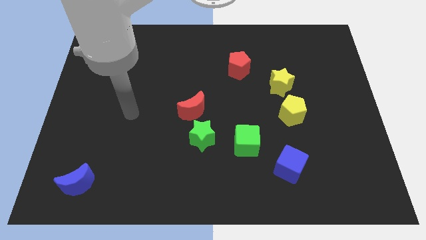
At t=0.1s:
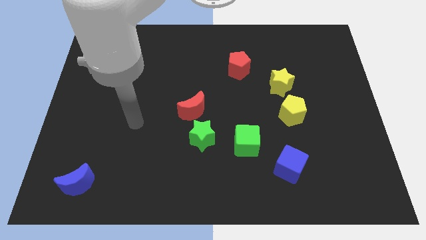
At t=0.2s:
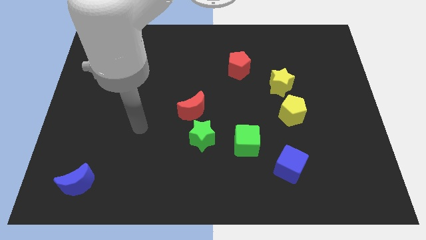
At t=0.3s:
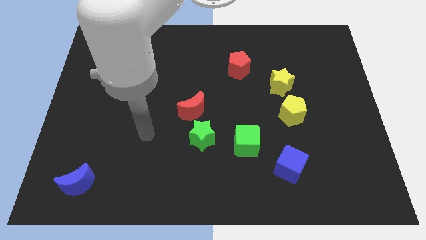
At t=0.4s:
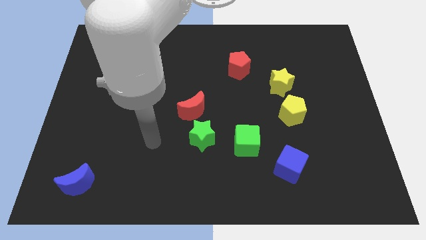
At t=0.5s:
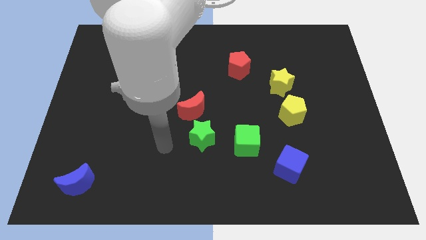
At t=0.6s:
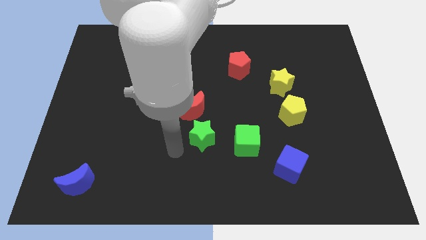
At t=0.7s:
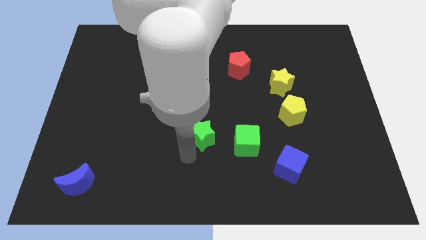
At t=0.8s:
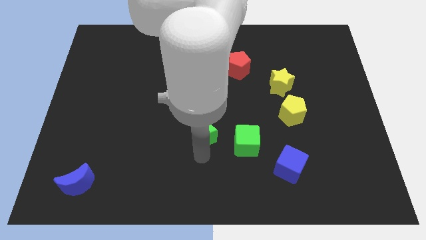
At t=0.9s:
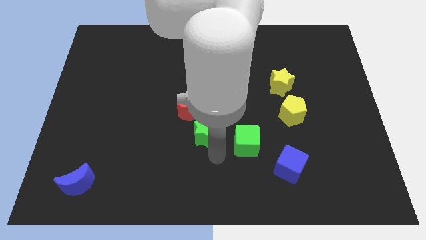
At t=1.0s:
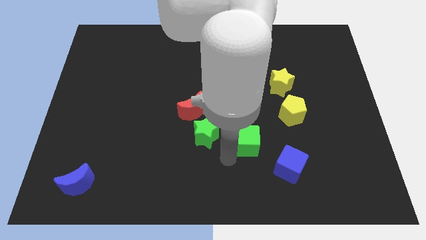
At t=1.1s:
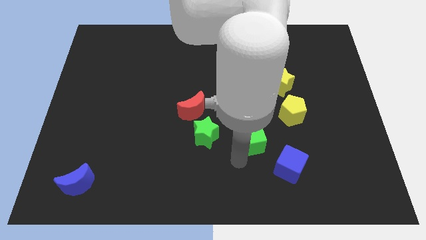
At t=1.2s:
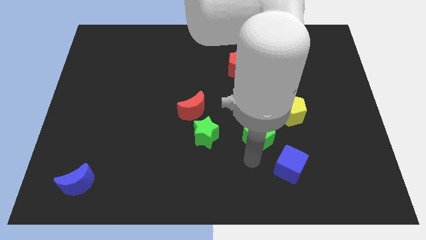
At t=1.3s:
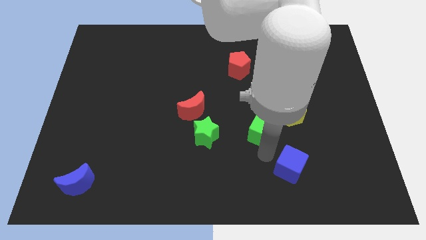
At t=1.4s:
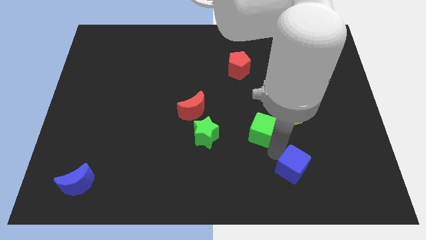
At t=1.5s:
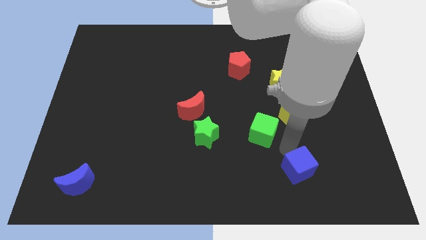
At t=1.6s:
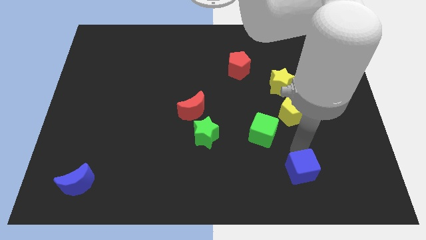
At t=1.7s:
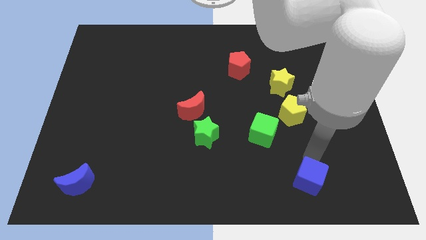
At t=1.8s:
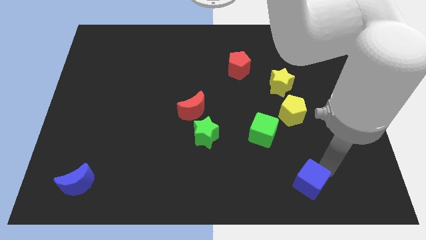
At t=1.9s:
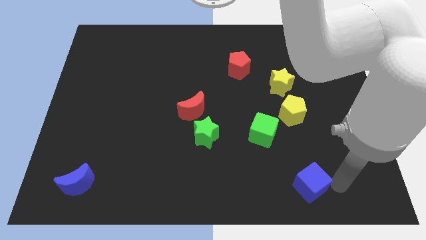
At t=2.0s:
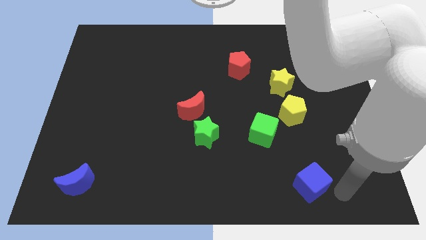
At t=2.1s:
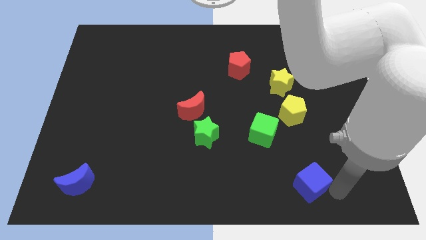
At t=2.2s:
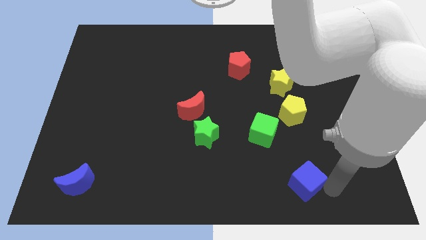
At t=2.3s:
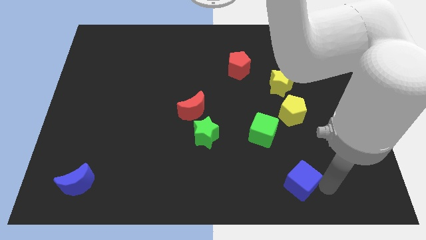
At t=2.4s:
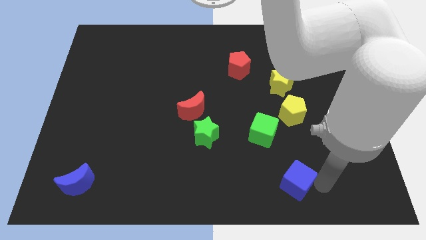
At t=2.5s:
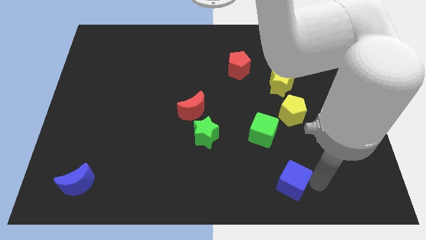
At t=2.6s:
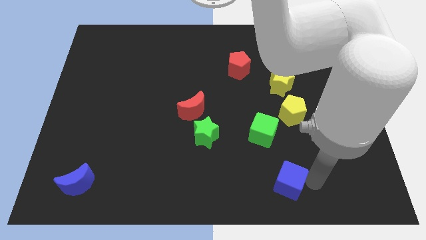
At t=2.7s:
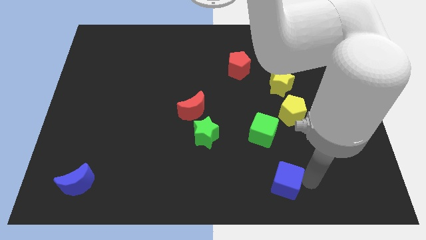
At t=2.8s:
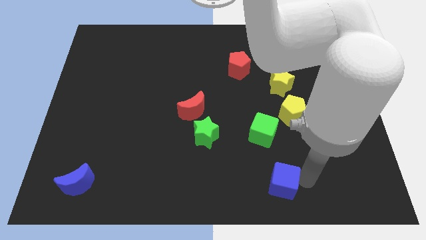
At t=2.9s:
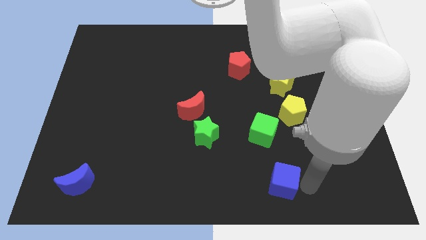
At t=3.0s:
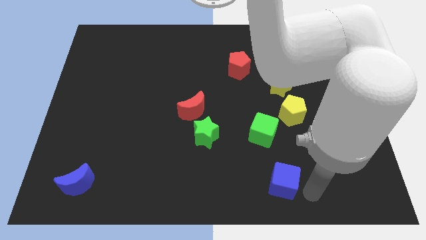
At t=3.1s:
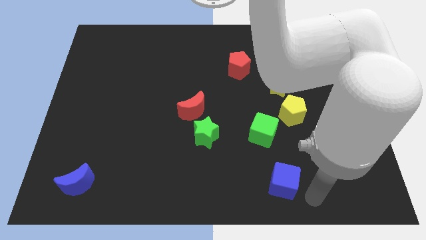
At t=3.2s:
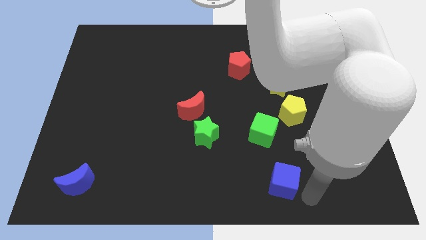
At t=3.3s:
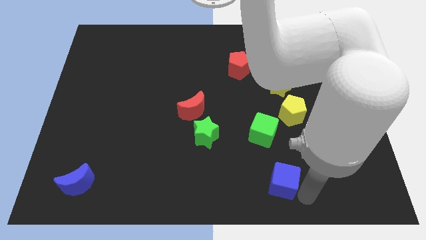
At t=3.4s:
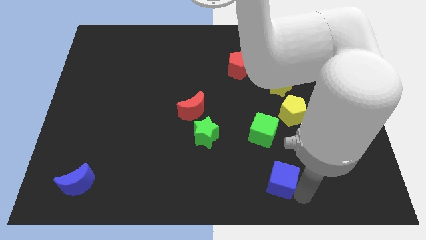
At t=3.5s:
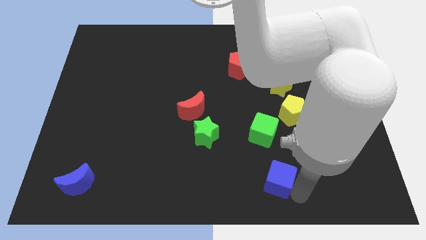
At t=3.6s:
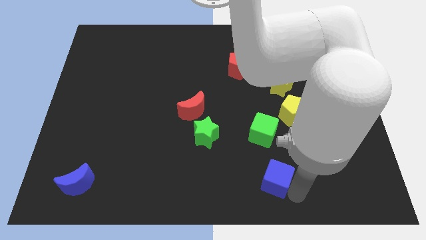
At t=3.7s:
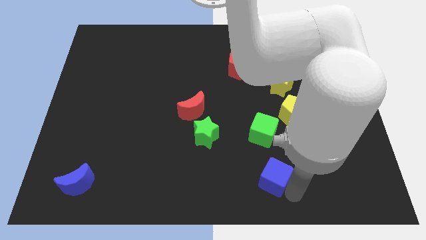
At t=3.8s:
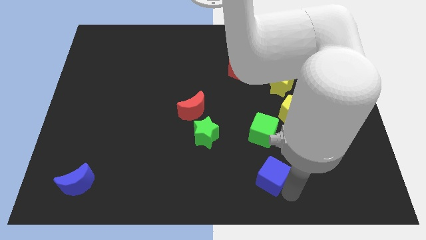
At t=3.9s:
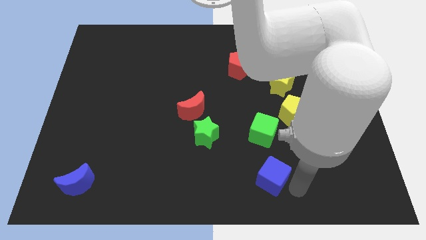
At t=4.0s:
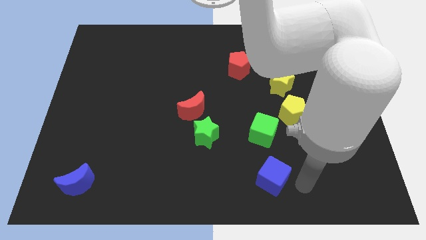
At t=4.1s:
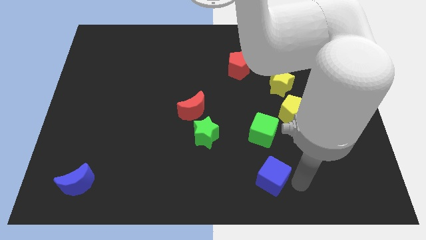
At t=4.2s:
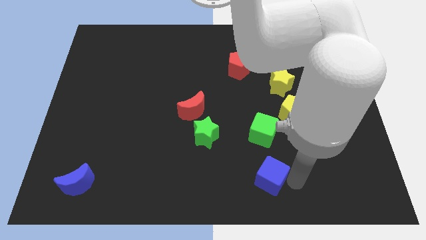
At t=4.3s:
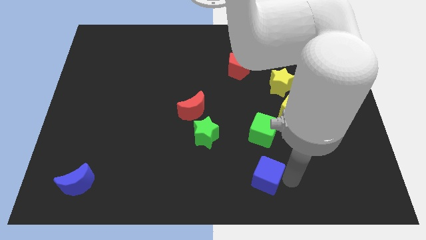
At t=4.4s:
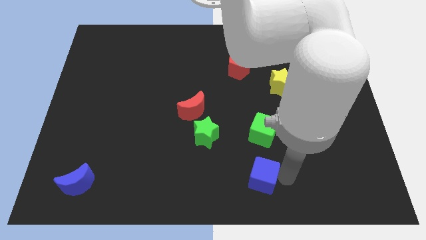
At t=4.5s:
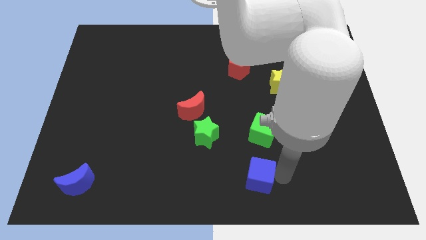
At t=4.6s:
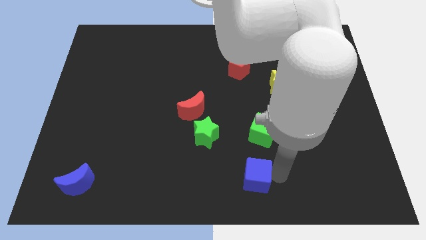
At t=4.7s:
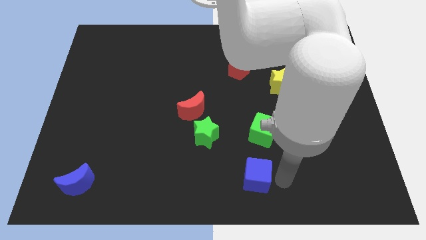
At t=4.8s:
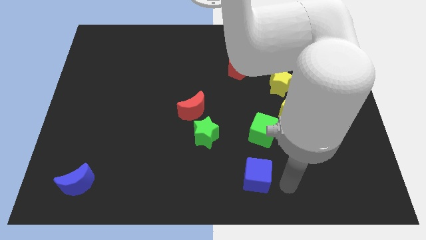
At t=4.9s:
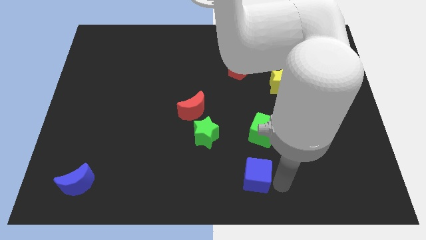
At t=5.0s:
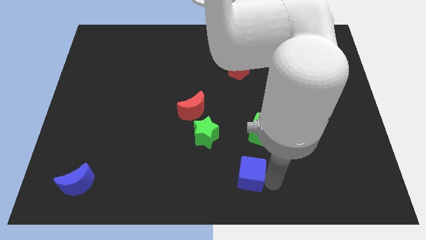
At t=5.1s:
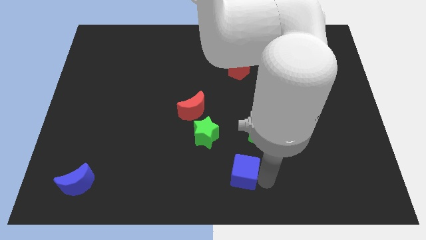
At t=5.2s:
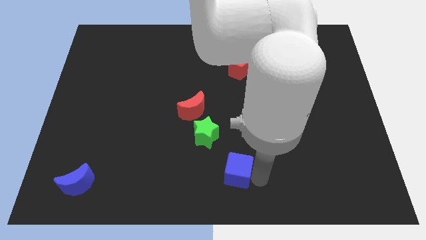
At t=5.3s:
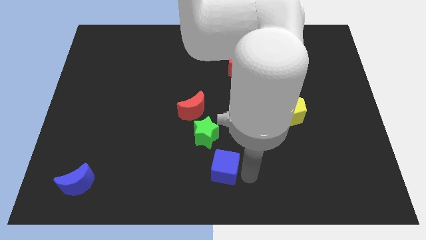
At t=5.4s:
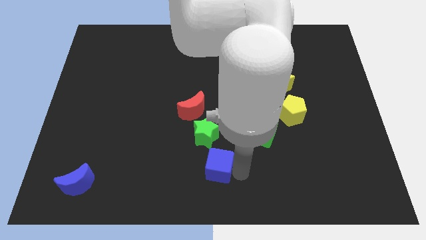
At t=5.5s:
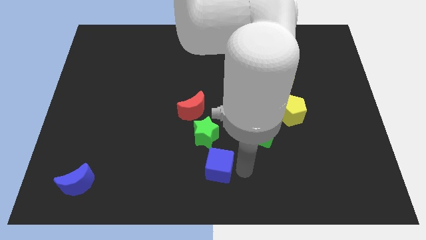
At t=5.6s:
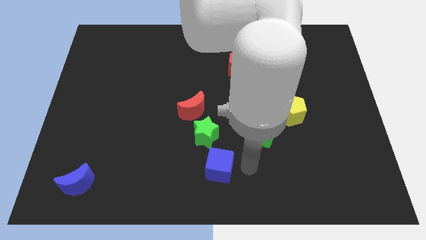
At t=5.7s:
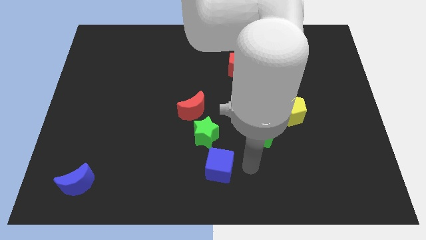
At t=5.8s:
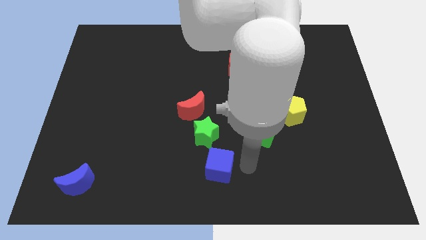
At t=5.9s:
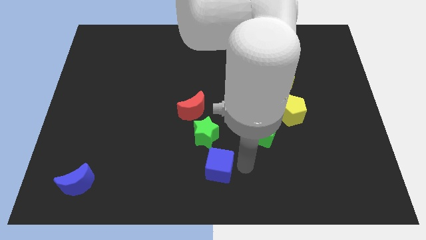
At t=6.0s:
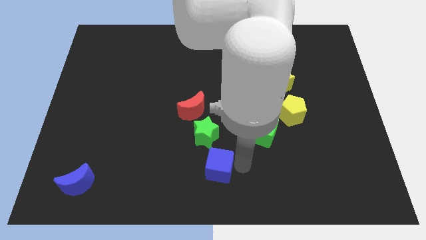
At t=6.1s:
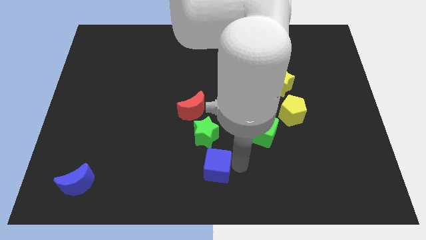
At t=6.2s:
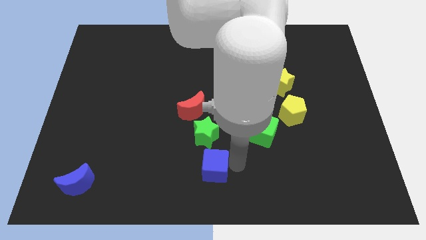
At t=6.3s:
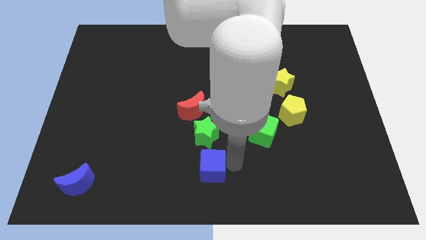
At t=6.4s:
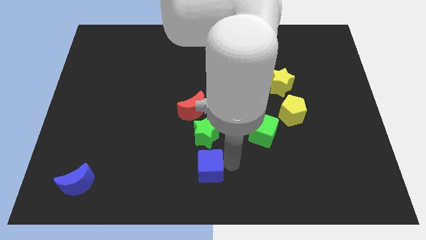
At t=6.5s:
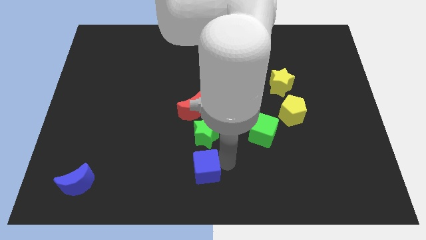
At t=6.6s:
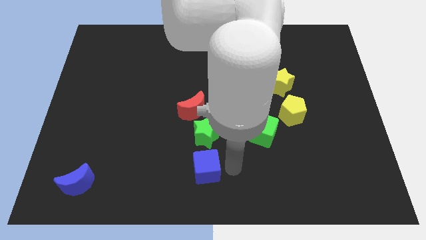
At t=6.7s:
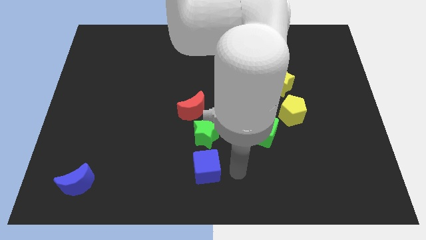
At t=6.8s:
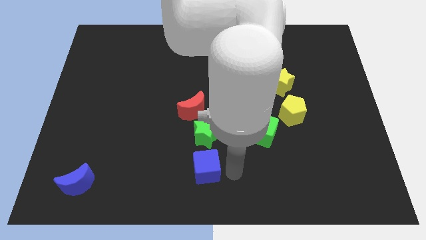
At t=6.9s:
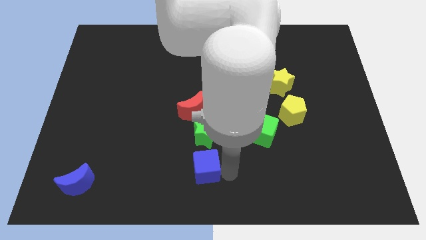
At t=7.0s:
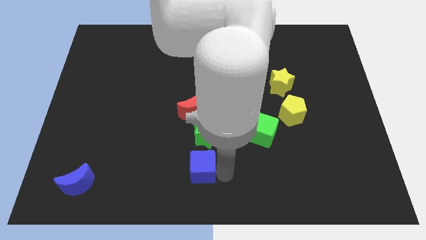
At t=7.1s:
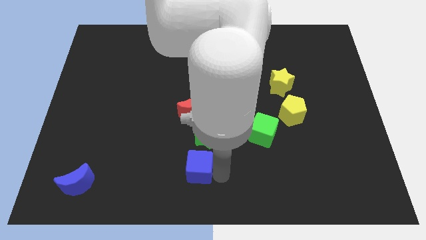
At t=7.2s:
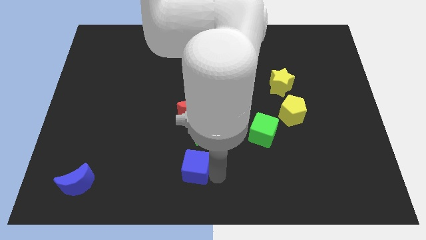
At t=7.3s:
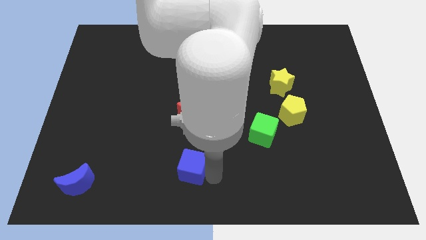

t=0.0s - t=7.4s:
move the blue cube left

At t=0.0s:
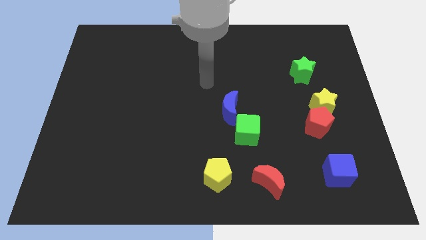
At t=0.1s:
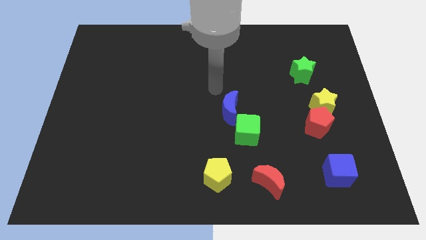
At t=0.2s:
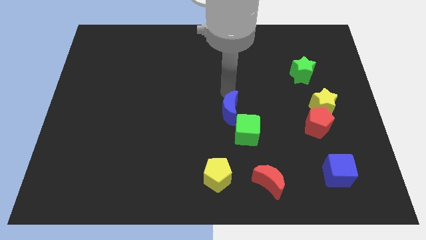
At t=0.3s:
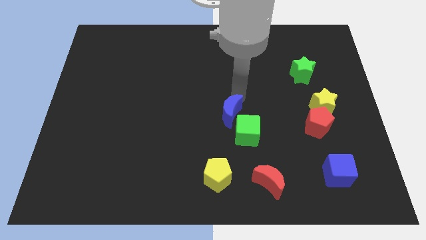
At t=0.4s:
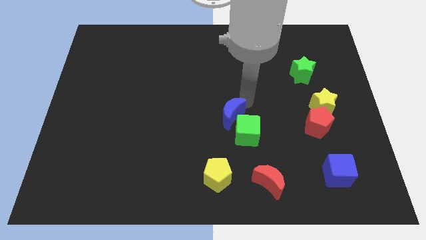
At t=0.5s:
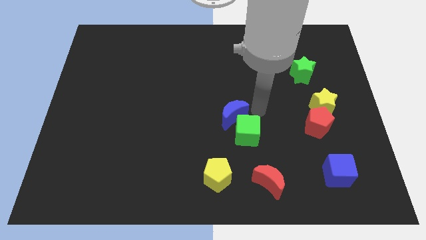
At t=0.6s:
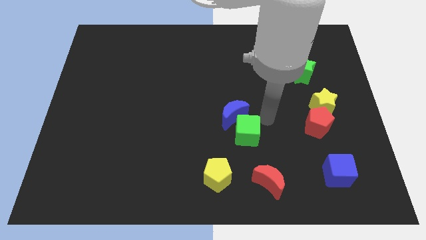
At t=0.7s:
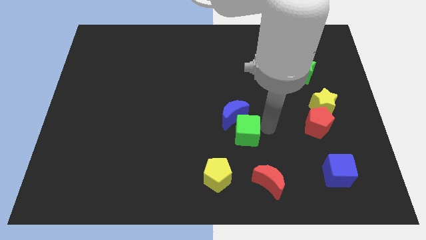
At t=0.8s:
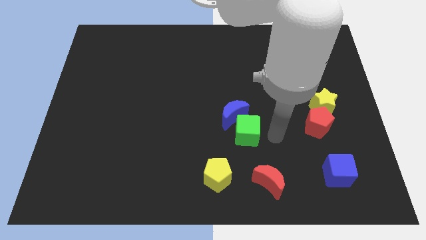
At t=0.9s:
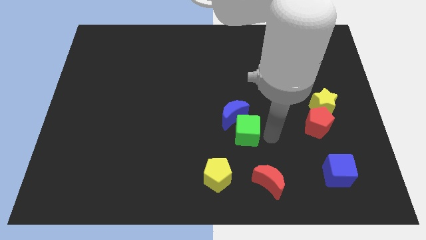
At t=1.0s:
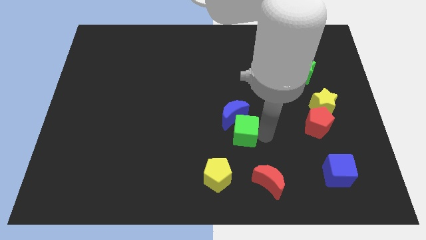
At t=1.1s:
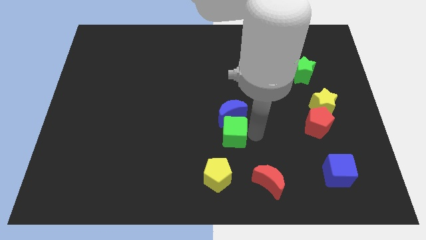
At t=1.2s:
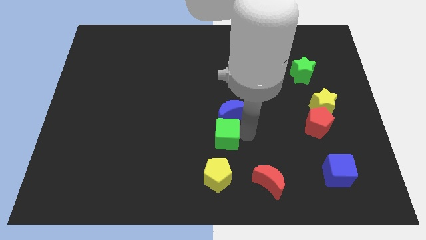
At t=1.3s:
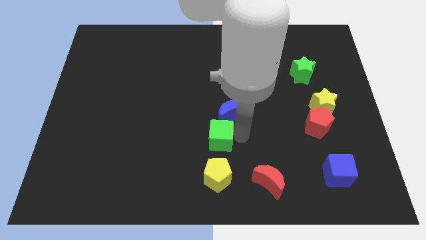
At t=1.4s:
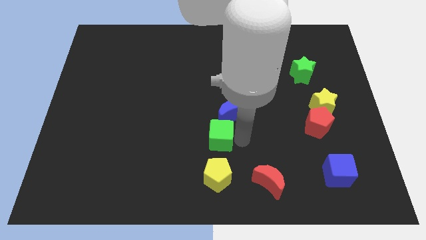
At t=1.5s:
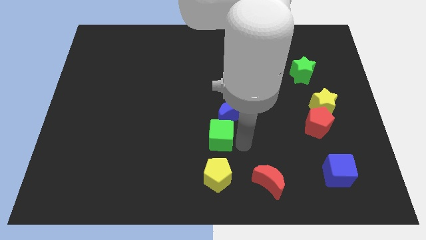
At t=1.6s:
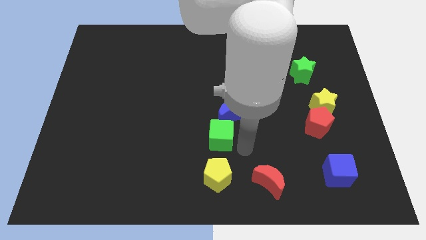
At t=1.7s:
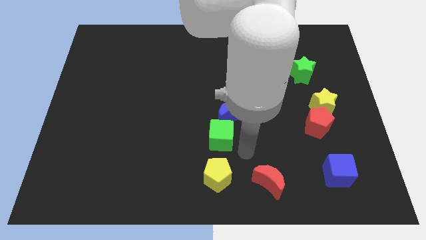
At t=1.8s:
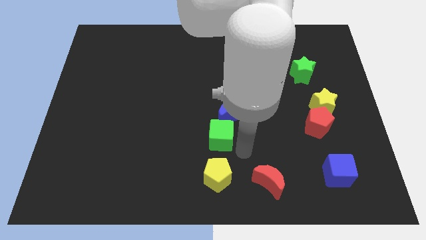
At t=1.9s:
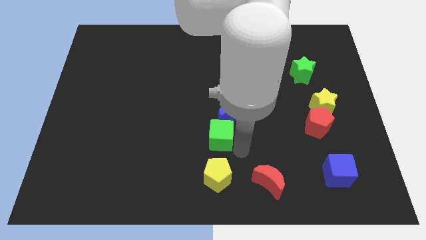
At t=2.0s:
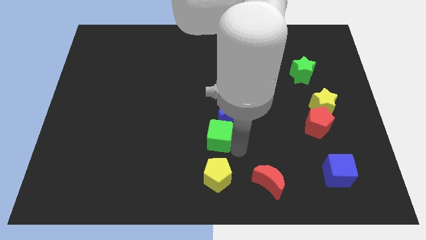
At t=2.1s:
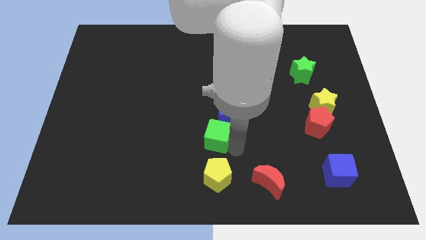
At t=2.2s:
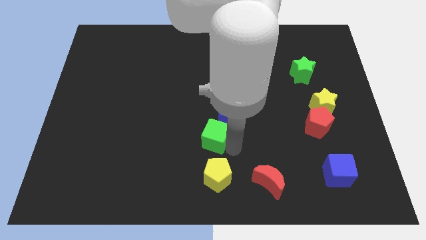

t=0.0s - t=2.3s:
slightly push the green cube left
